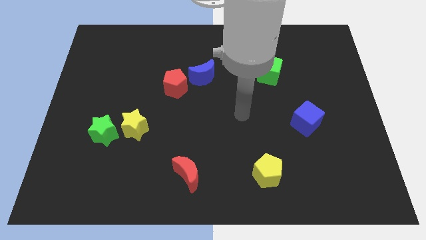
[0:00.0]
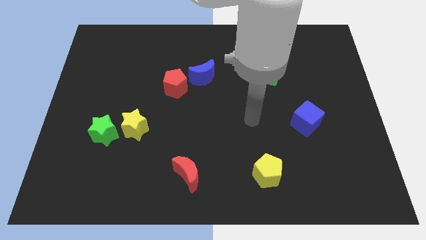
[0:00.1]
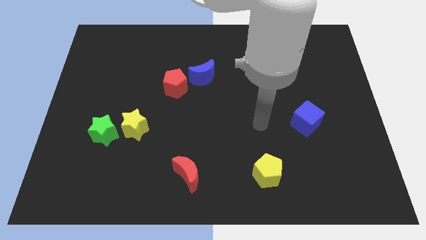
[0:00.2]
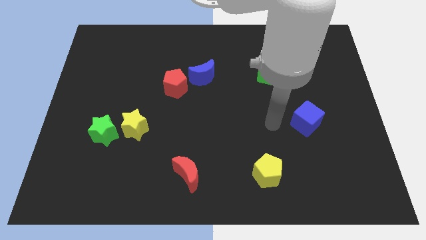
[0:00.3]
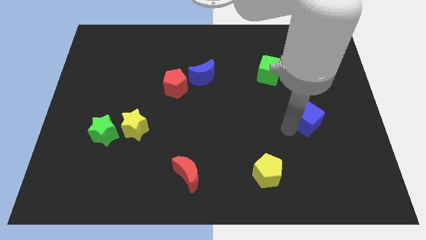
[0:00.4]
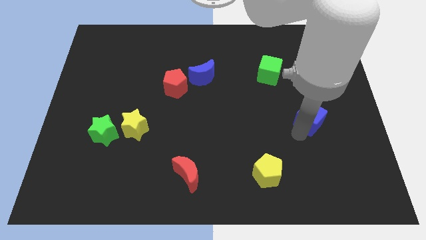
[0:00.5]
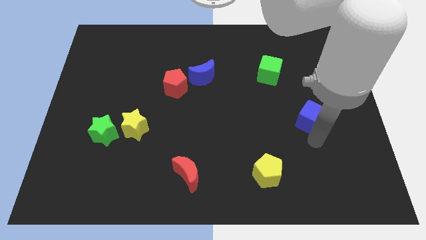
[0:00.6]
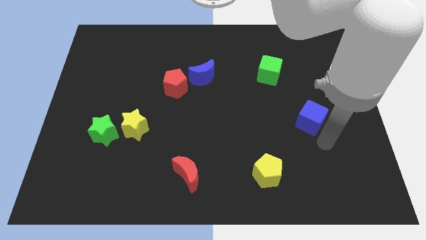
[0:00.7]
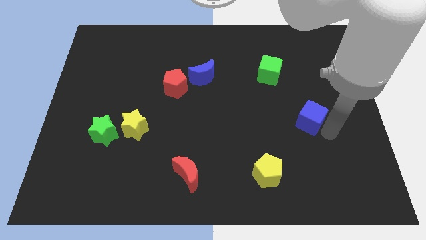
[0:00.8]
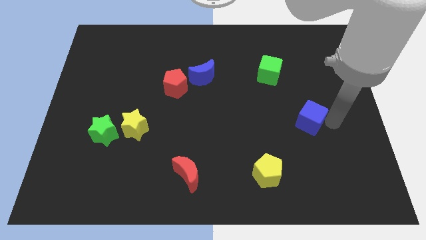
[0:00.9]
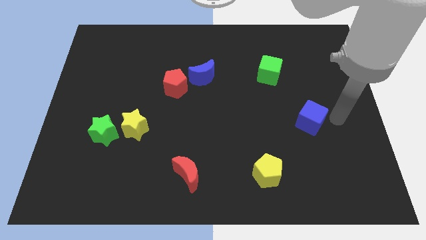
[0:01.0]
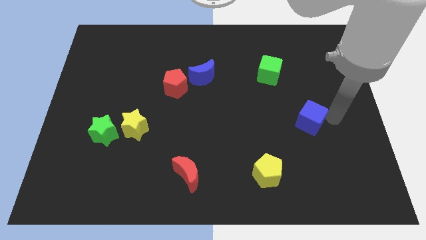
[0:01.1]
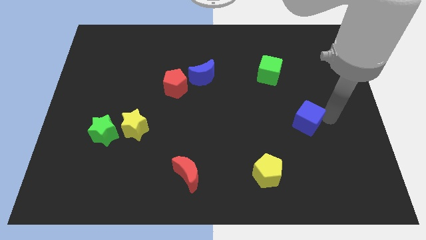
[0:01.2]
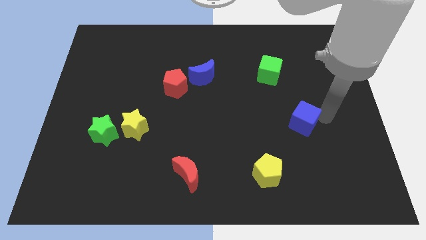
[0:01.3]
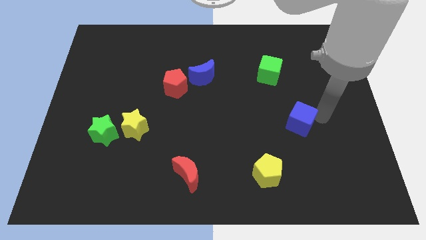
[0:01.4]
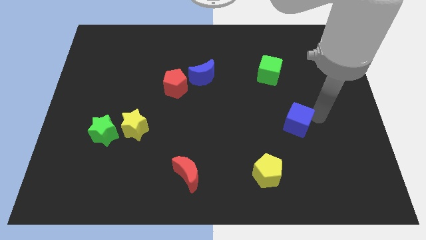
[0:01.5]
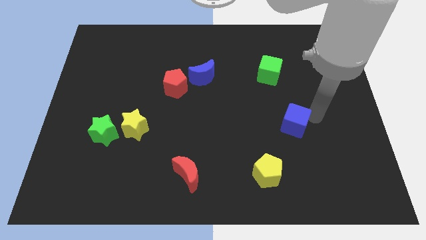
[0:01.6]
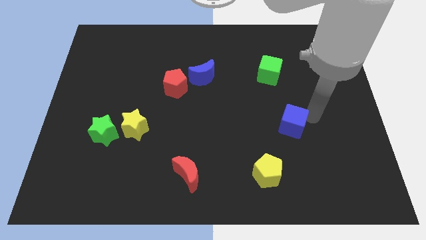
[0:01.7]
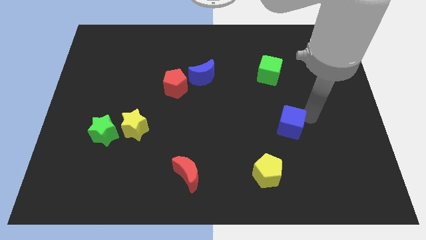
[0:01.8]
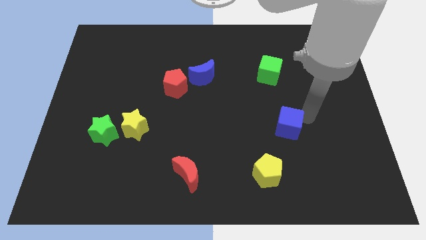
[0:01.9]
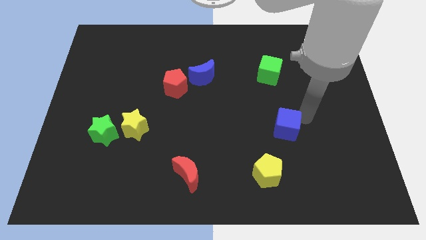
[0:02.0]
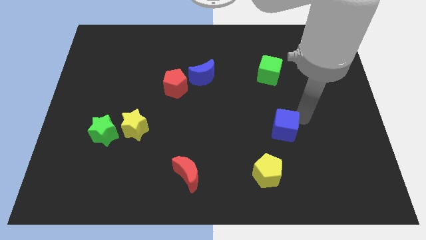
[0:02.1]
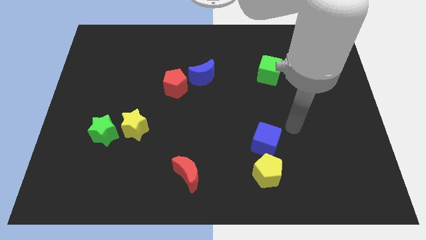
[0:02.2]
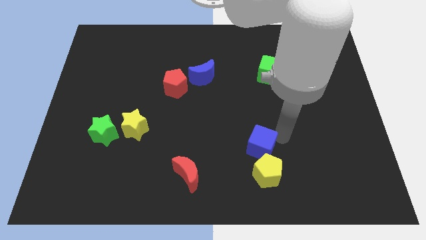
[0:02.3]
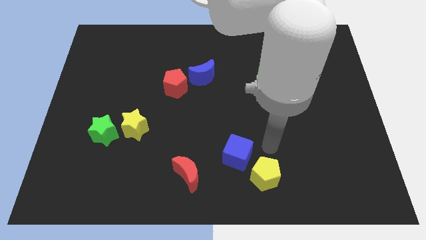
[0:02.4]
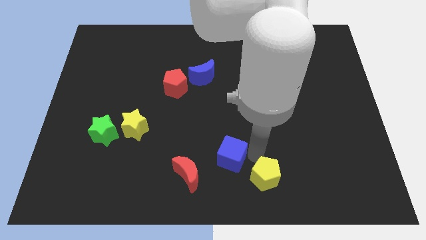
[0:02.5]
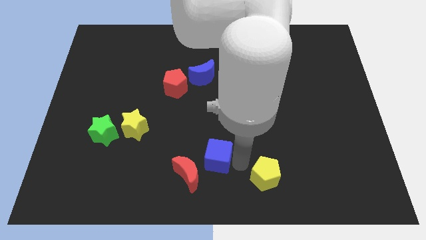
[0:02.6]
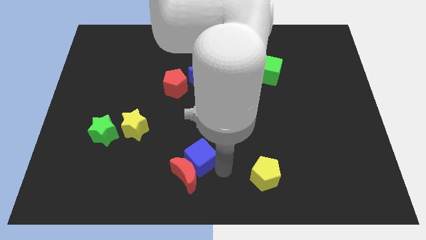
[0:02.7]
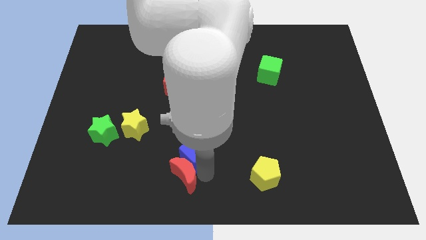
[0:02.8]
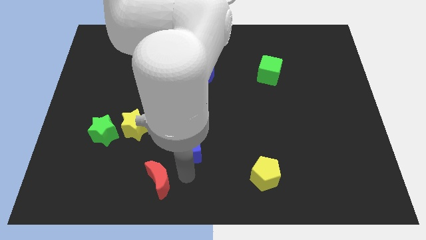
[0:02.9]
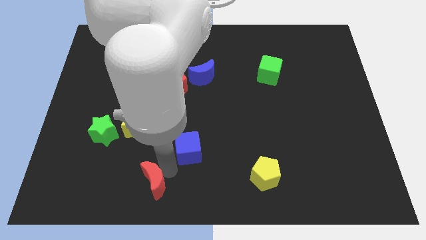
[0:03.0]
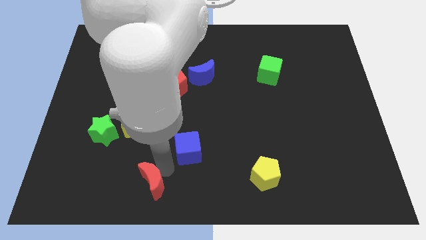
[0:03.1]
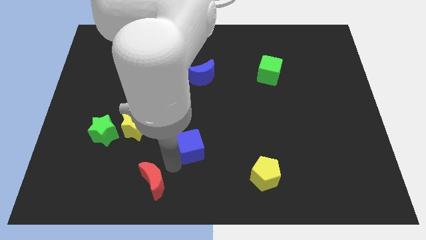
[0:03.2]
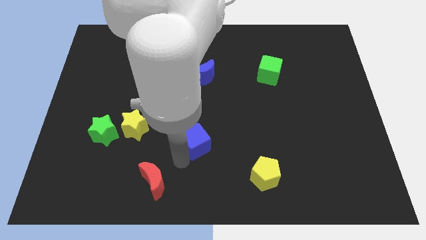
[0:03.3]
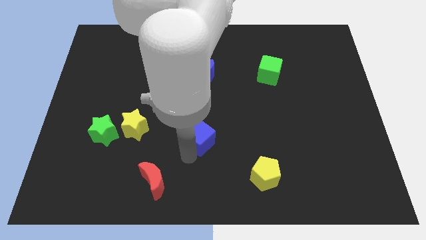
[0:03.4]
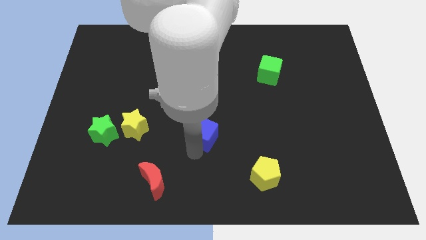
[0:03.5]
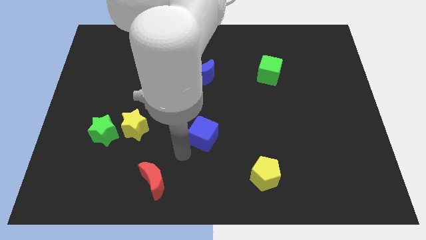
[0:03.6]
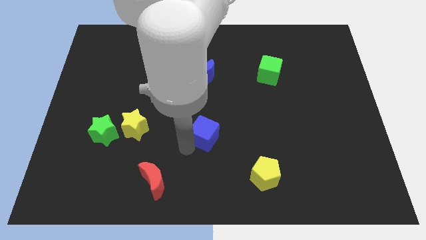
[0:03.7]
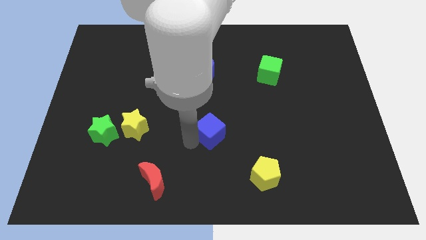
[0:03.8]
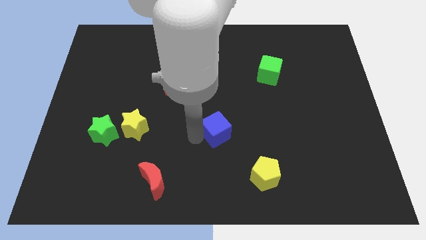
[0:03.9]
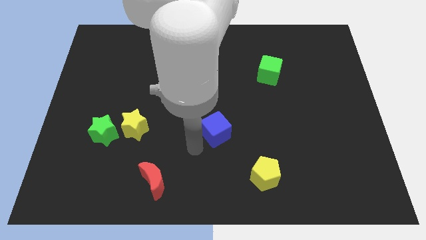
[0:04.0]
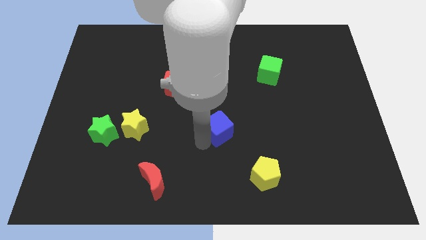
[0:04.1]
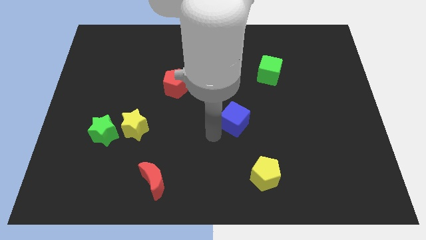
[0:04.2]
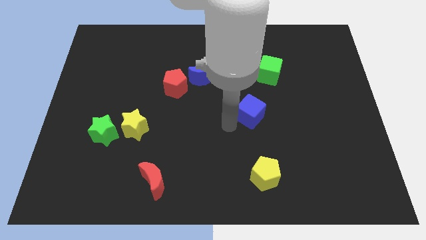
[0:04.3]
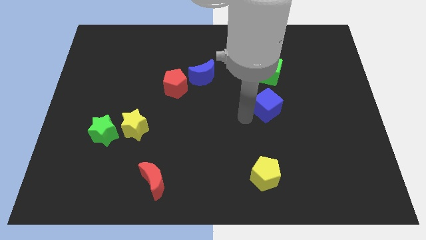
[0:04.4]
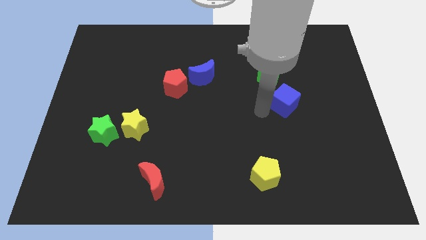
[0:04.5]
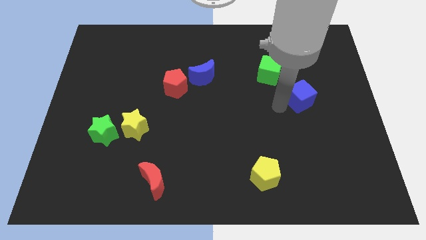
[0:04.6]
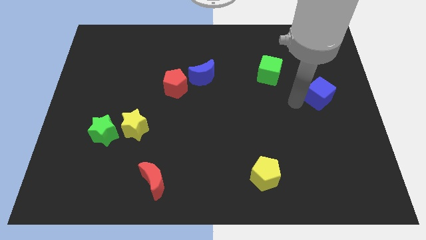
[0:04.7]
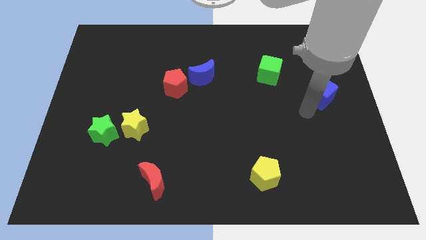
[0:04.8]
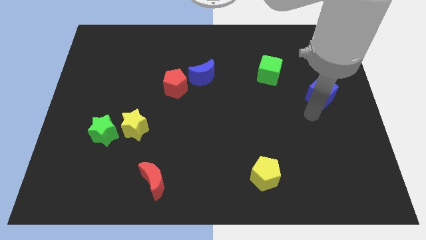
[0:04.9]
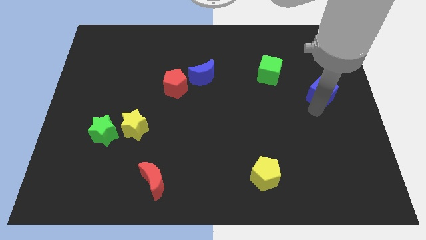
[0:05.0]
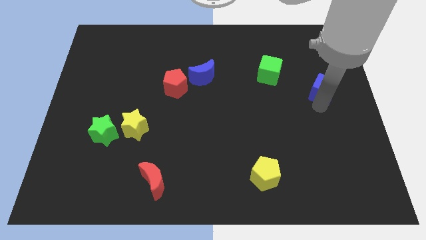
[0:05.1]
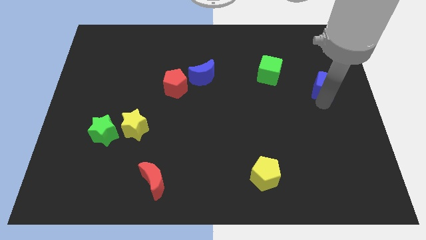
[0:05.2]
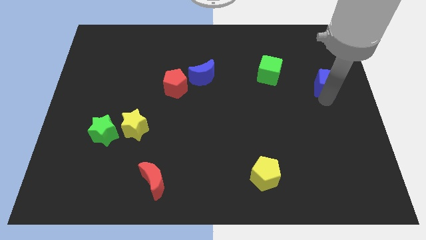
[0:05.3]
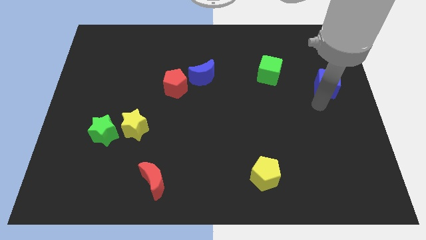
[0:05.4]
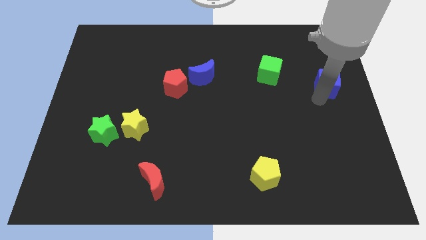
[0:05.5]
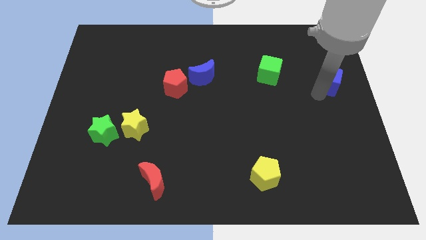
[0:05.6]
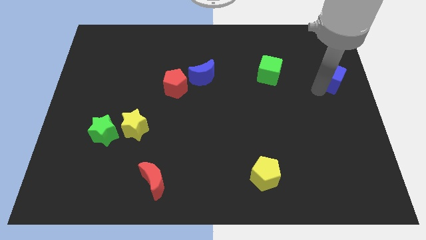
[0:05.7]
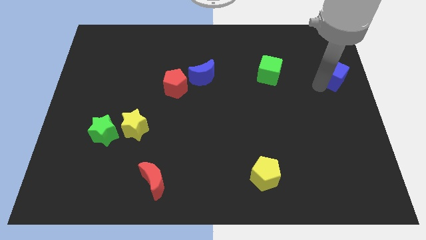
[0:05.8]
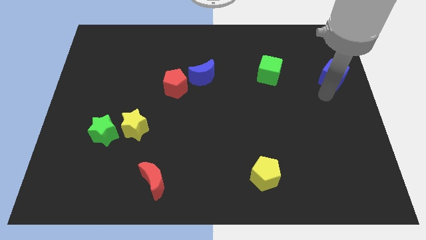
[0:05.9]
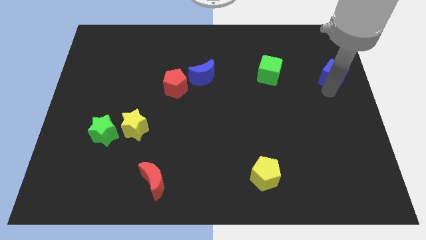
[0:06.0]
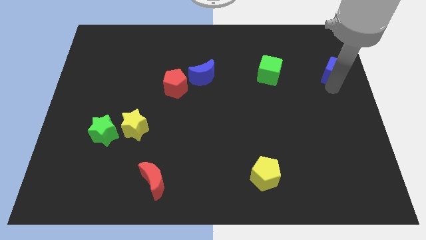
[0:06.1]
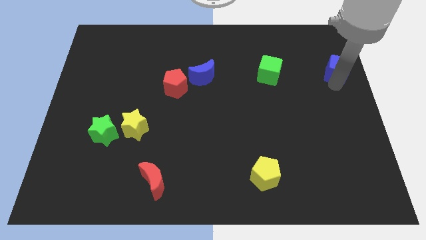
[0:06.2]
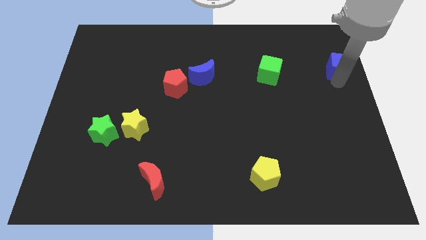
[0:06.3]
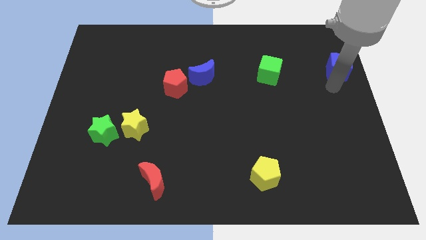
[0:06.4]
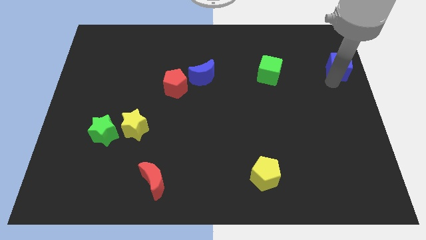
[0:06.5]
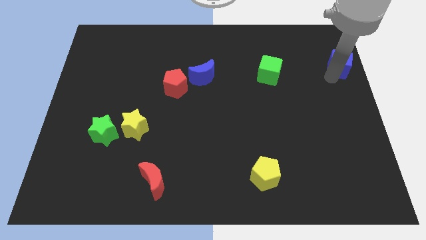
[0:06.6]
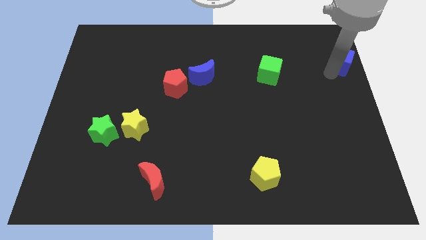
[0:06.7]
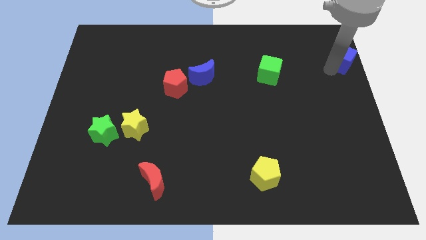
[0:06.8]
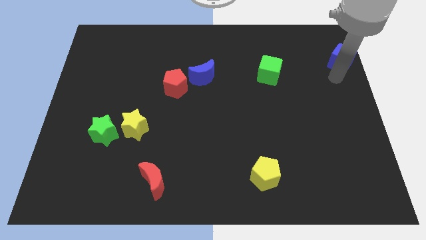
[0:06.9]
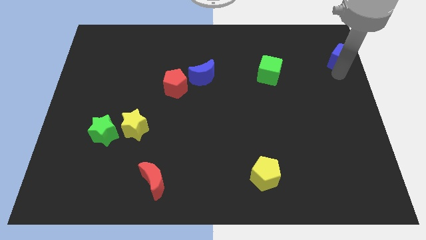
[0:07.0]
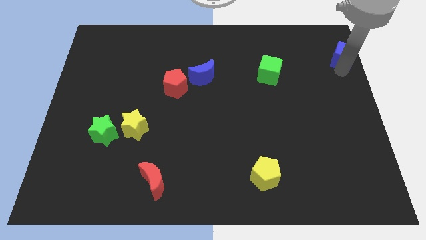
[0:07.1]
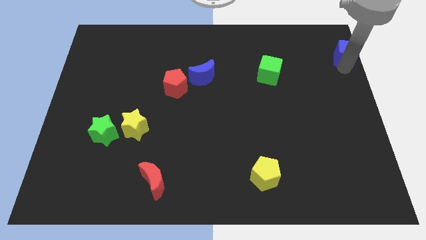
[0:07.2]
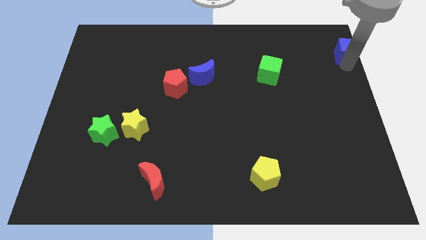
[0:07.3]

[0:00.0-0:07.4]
push the blue cube to the top right
